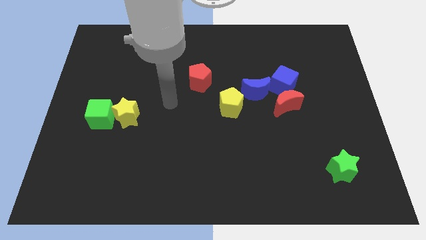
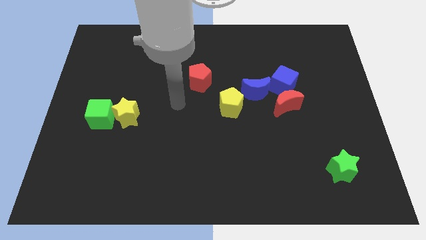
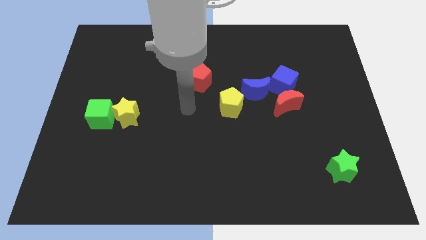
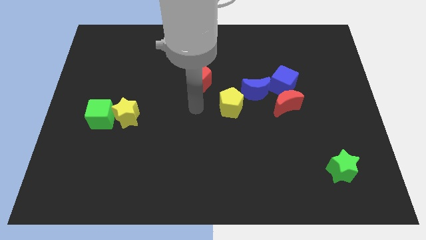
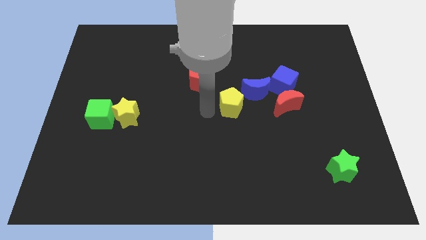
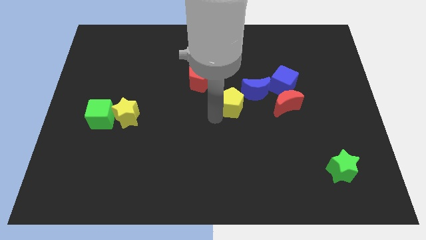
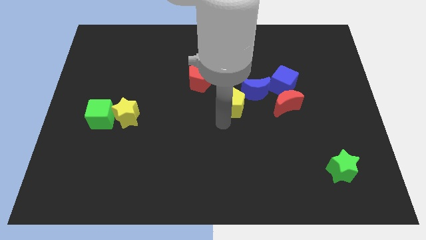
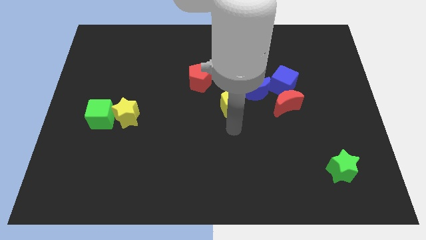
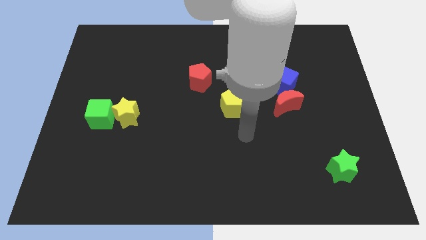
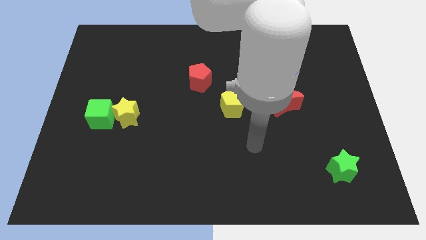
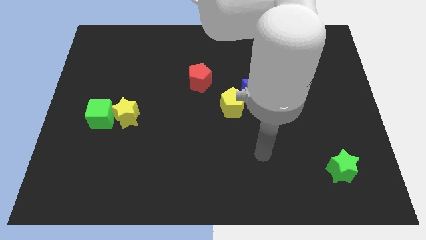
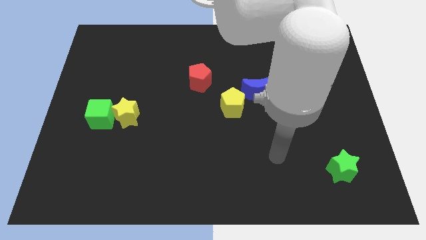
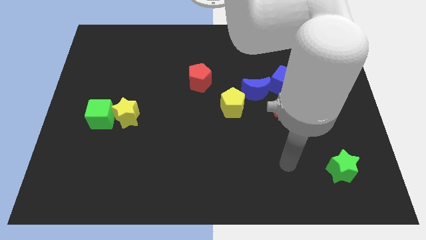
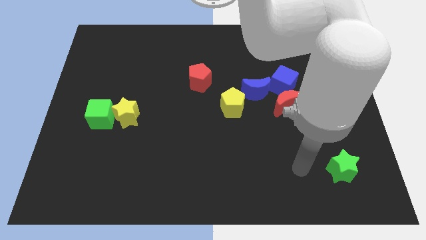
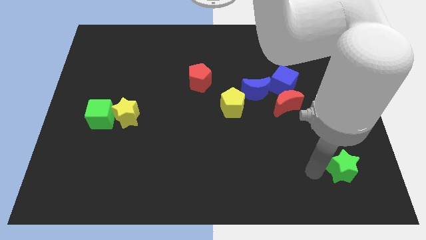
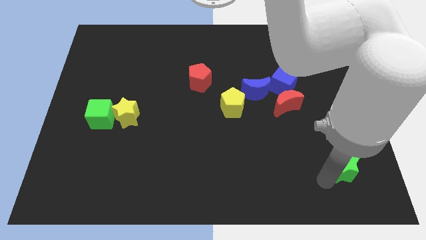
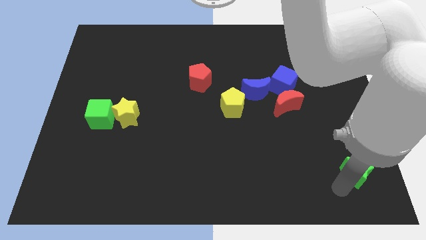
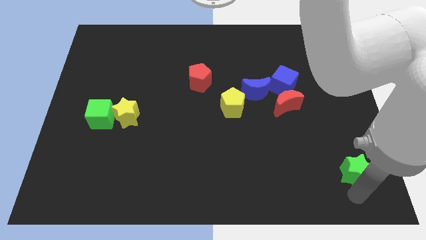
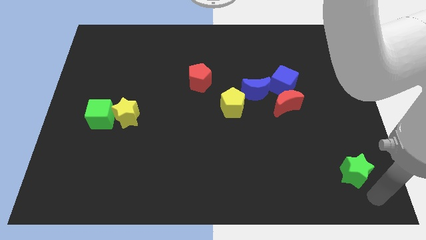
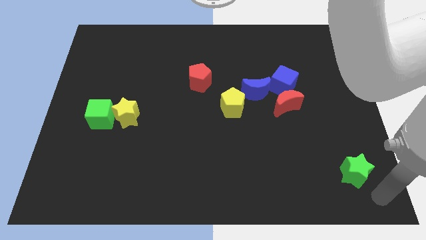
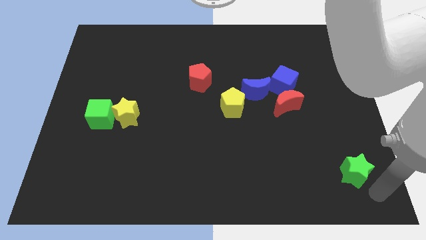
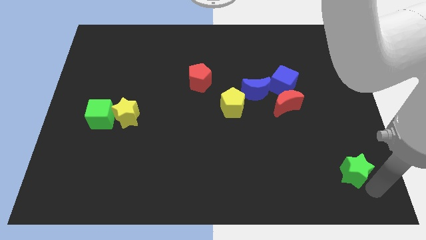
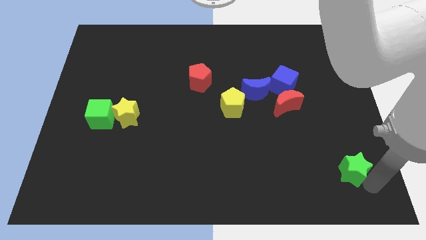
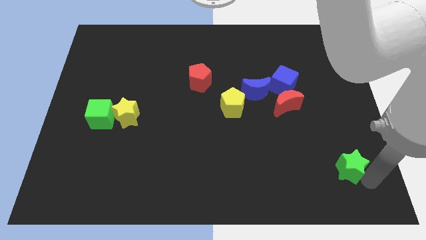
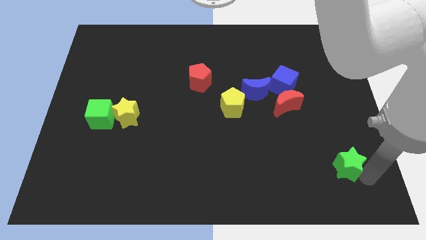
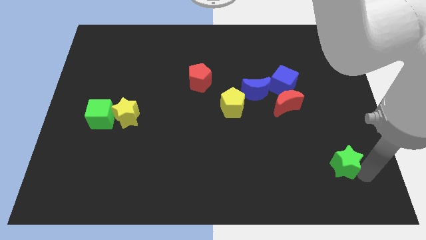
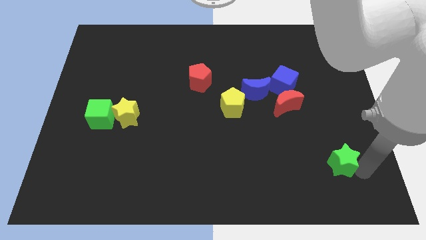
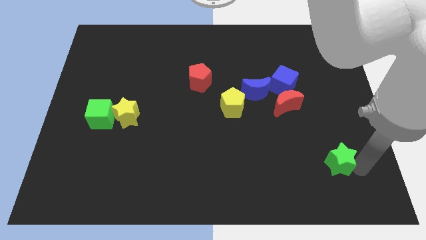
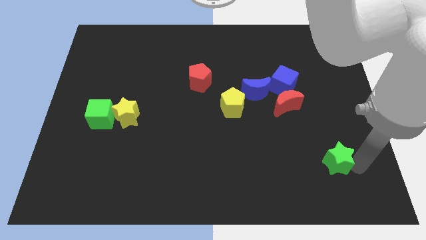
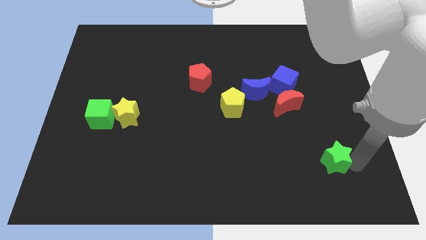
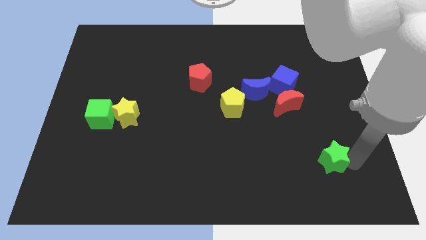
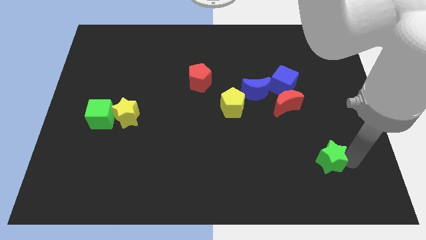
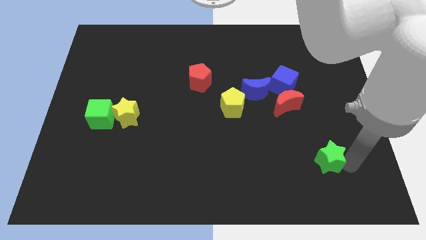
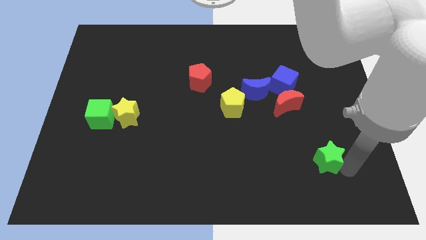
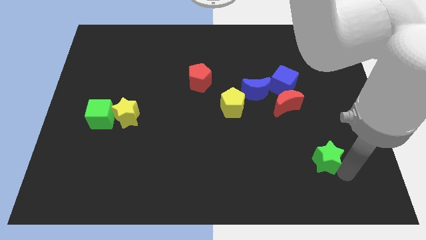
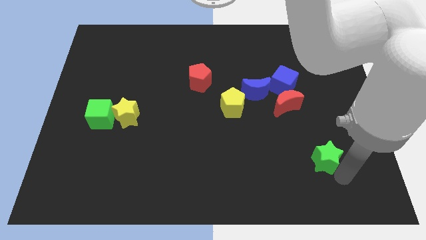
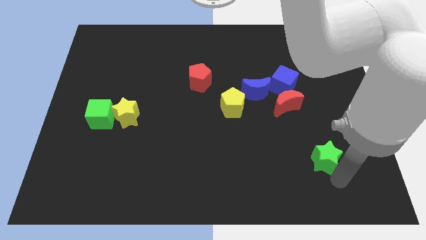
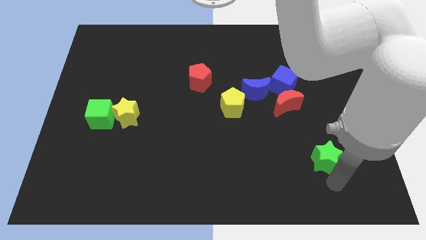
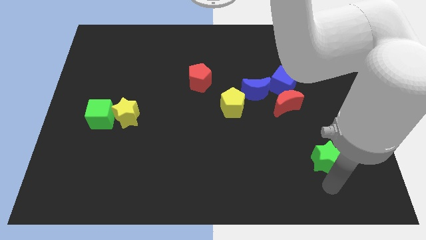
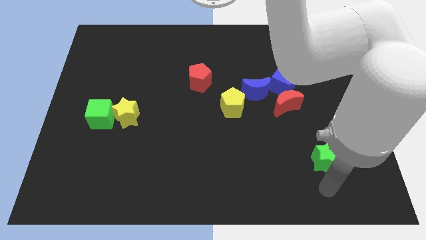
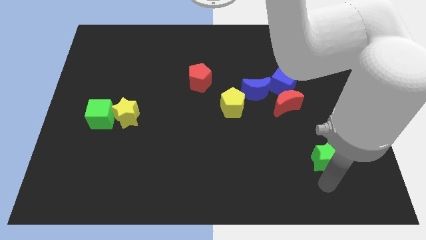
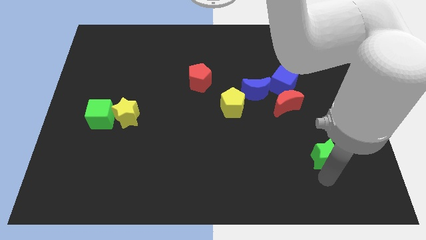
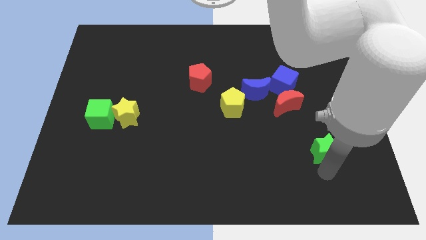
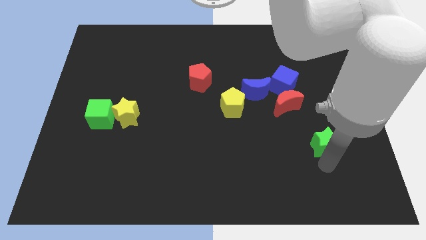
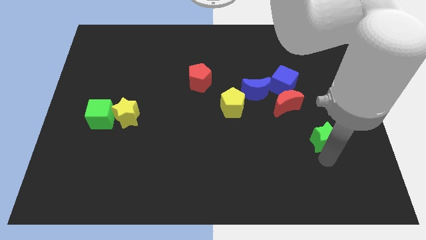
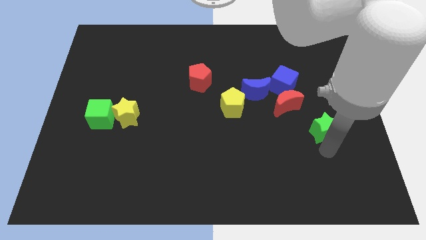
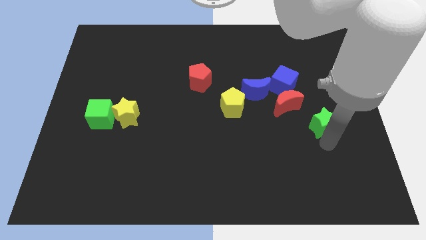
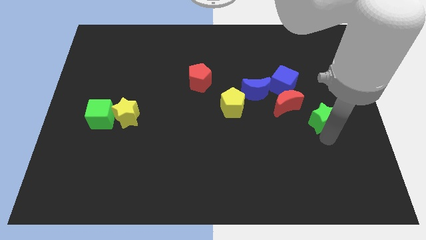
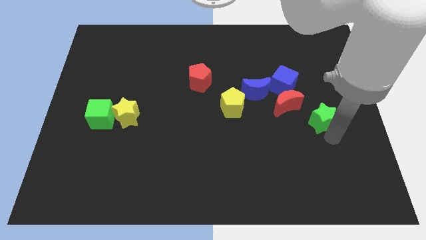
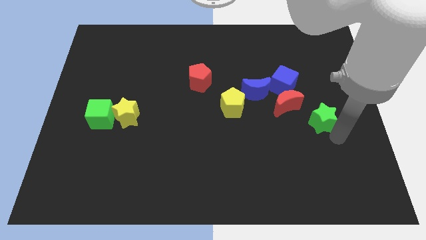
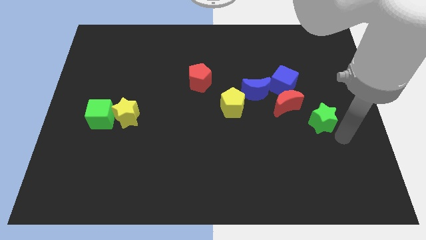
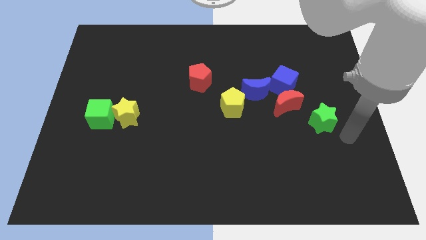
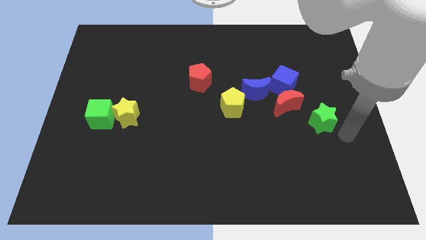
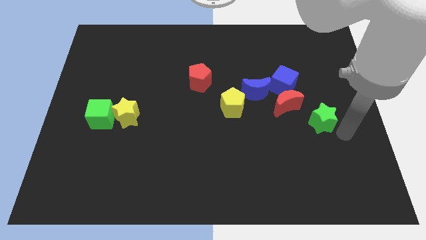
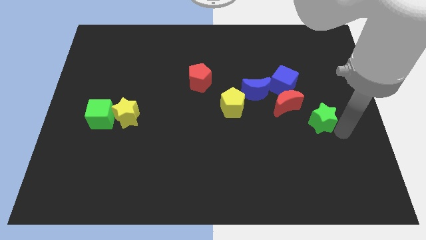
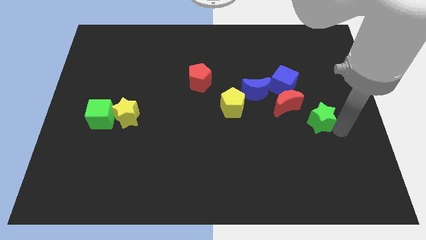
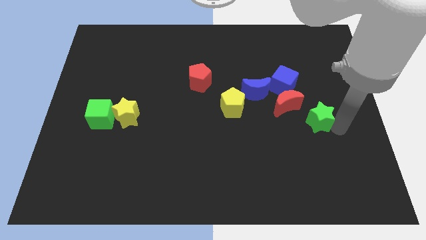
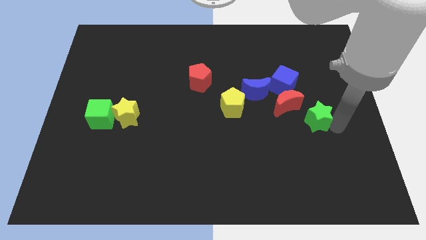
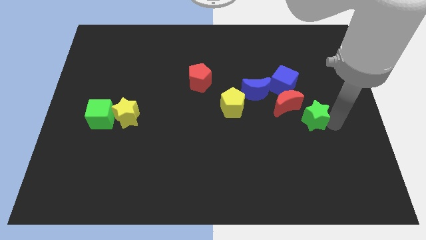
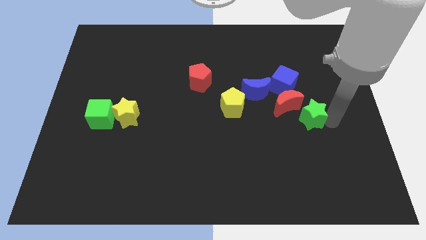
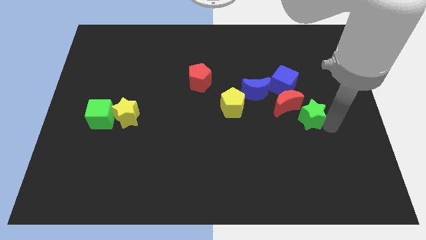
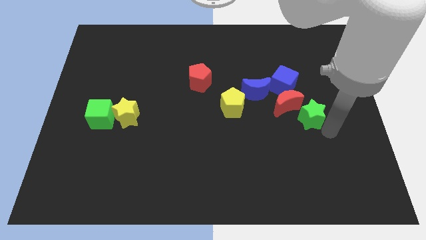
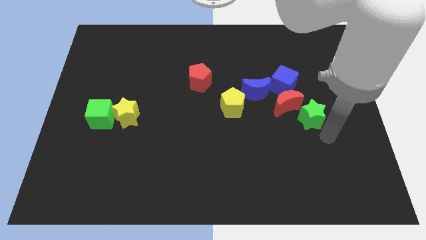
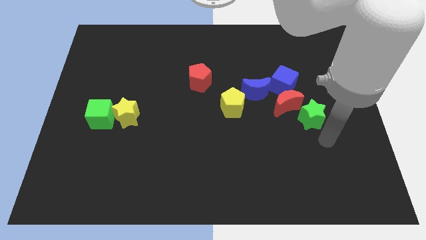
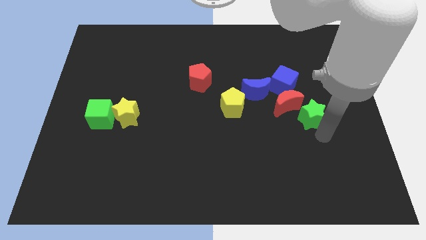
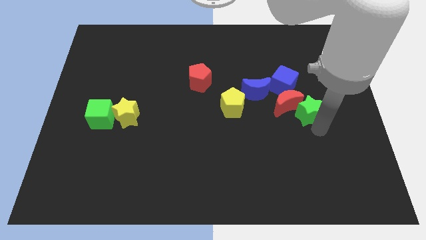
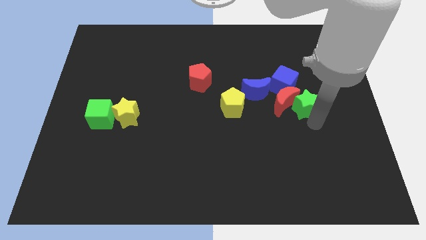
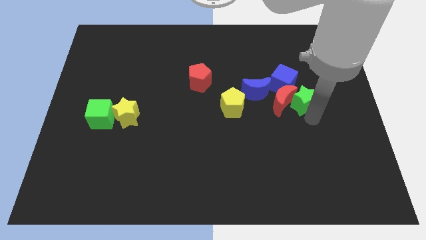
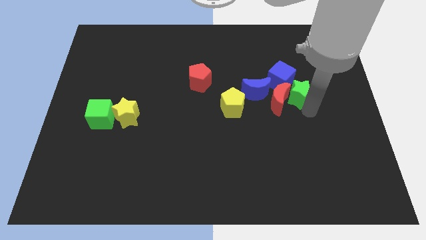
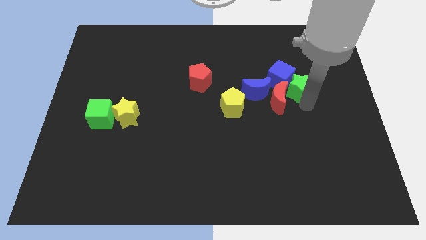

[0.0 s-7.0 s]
push the green star next to the blue cube
